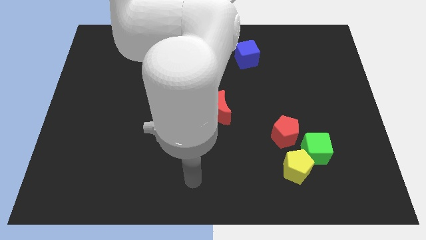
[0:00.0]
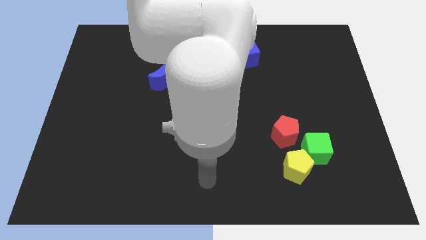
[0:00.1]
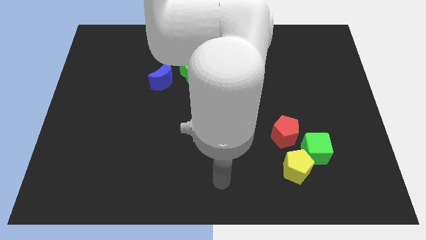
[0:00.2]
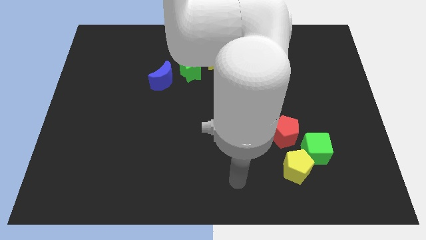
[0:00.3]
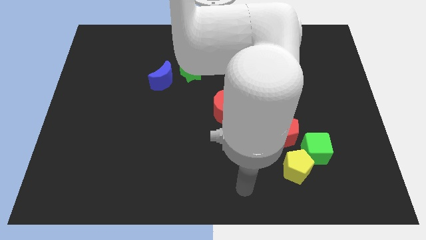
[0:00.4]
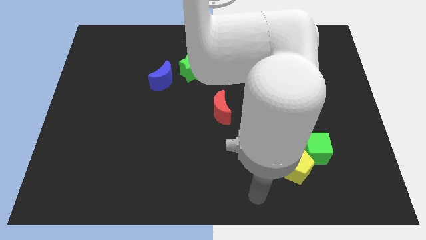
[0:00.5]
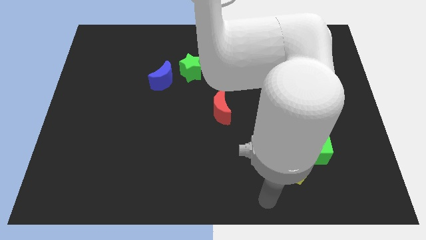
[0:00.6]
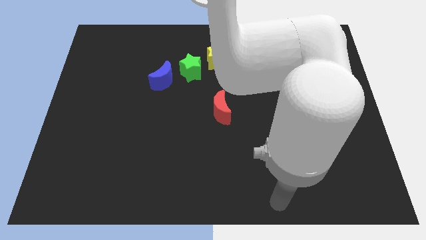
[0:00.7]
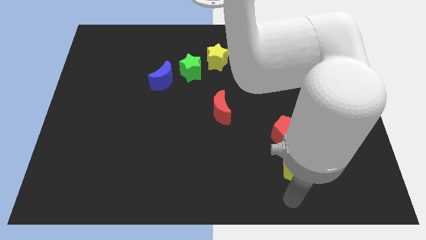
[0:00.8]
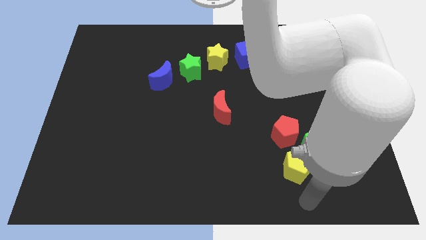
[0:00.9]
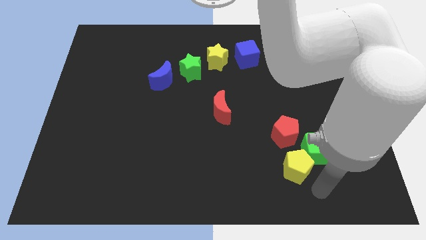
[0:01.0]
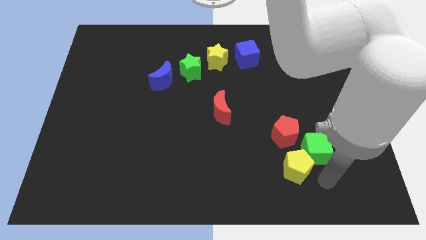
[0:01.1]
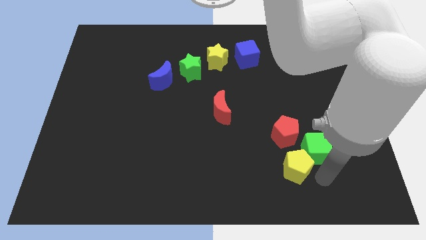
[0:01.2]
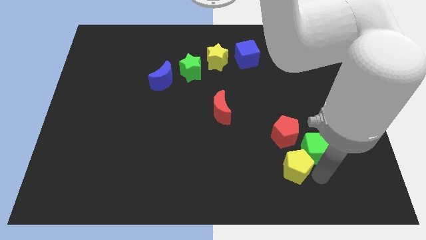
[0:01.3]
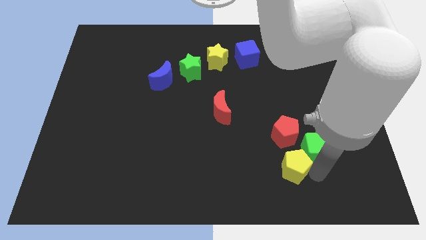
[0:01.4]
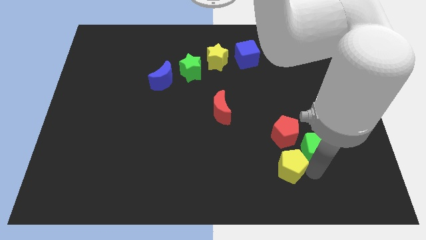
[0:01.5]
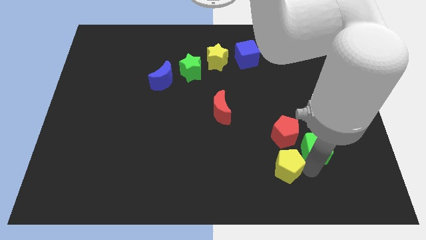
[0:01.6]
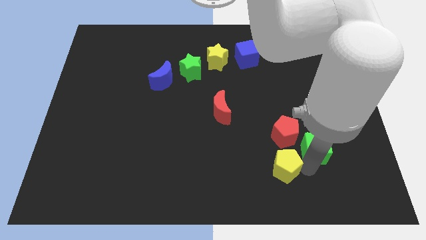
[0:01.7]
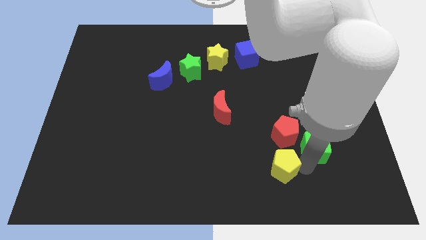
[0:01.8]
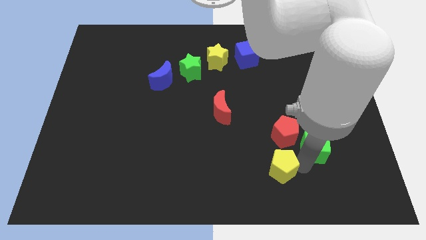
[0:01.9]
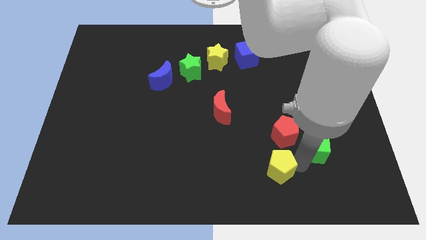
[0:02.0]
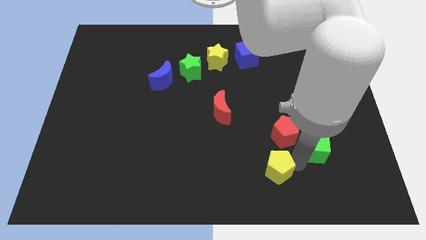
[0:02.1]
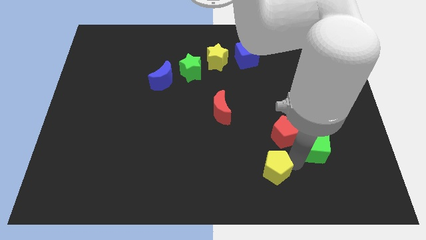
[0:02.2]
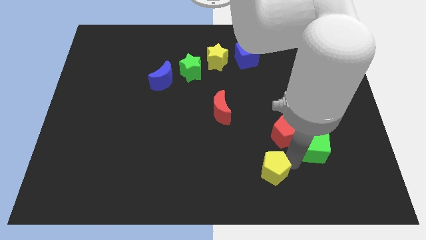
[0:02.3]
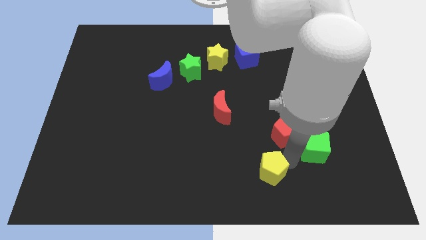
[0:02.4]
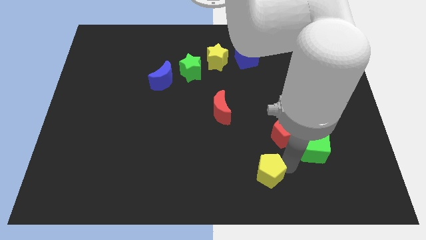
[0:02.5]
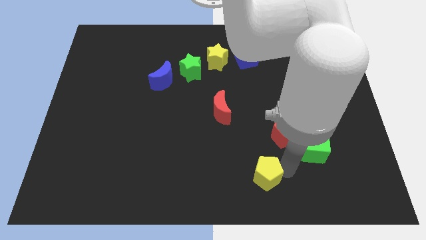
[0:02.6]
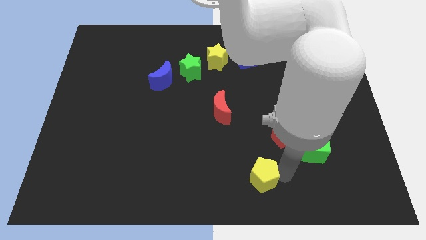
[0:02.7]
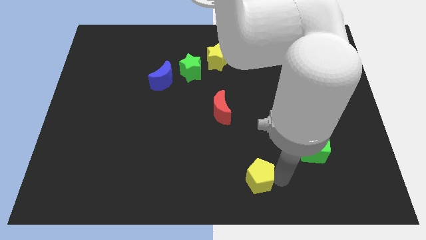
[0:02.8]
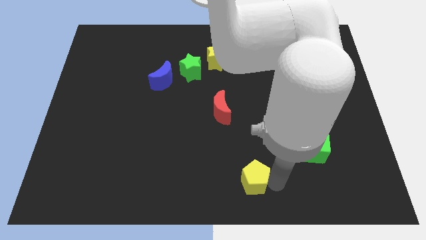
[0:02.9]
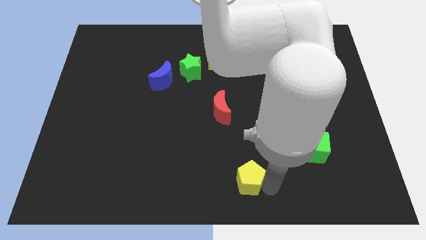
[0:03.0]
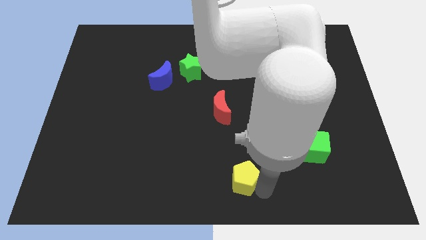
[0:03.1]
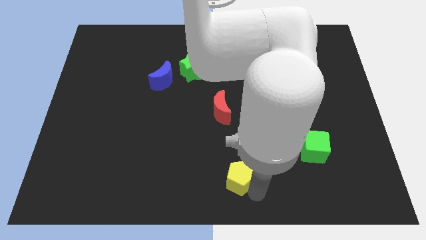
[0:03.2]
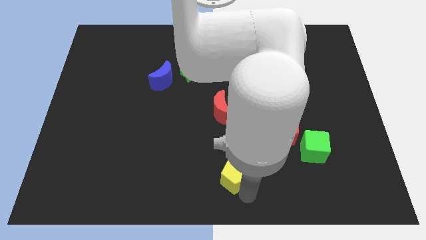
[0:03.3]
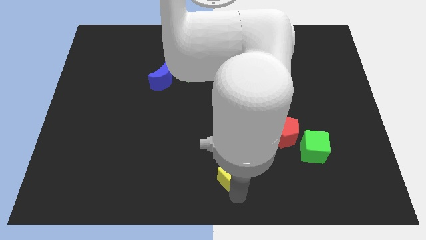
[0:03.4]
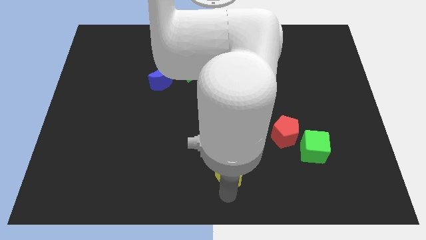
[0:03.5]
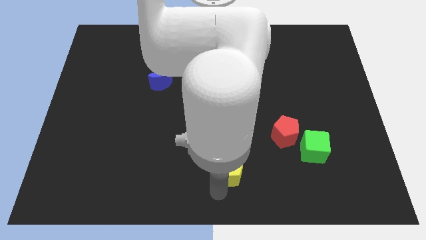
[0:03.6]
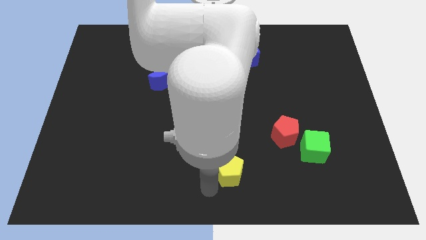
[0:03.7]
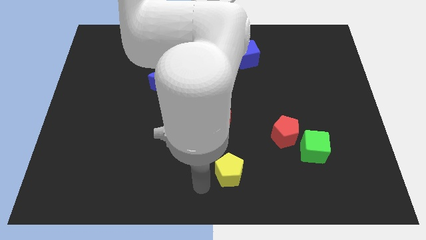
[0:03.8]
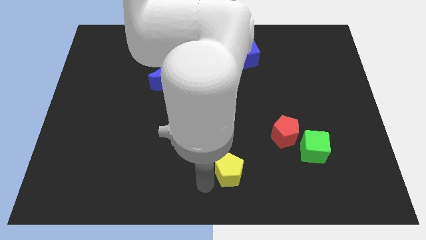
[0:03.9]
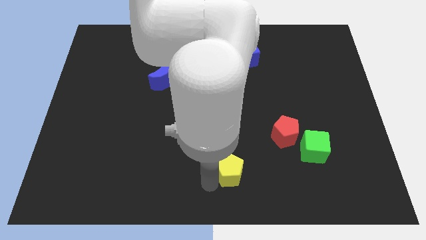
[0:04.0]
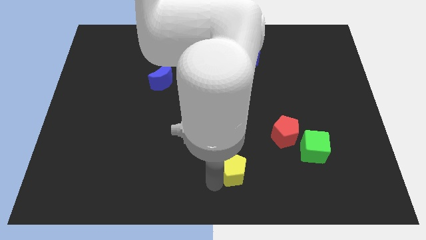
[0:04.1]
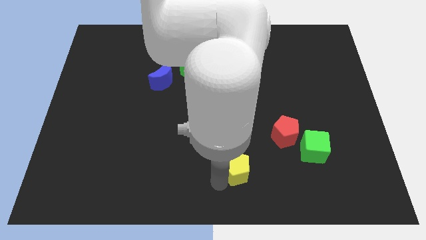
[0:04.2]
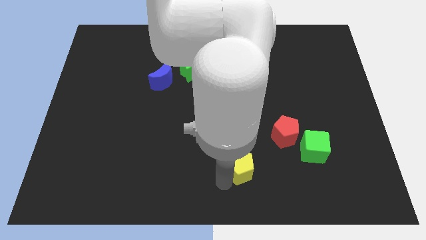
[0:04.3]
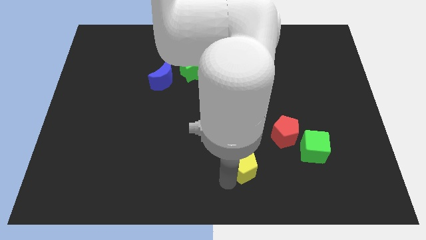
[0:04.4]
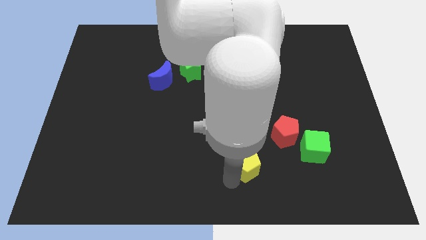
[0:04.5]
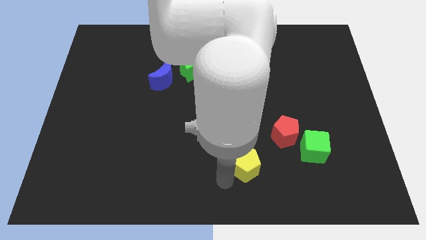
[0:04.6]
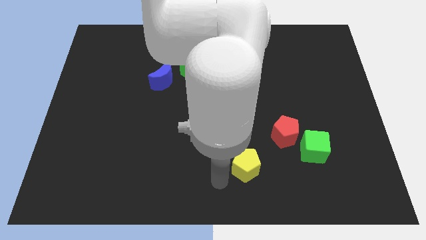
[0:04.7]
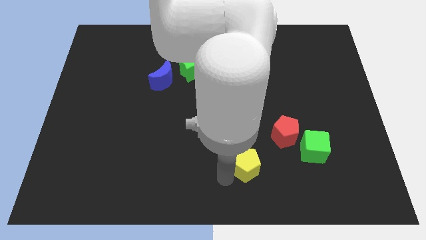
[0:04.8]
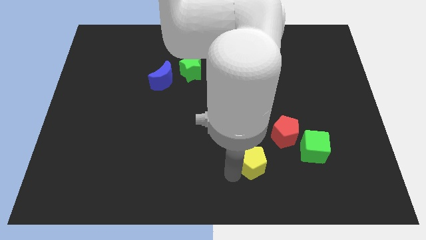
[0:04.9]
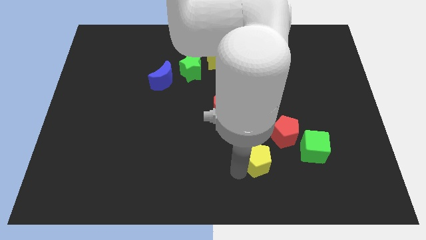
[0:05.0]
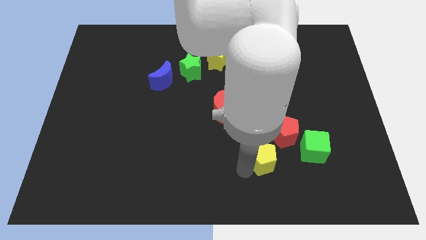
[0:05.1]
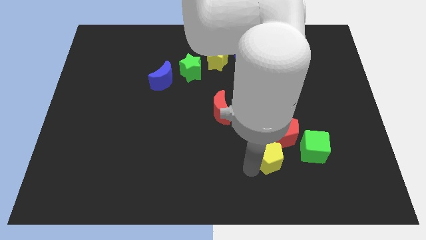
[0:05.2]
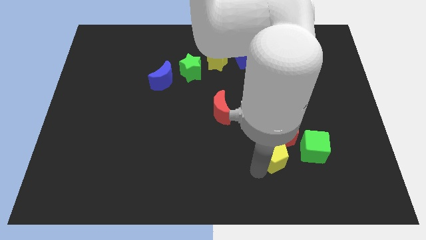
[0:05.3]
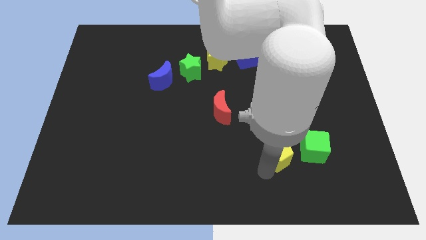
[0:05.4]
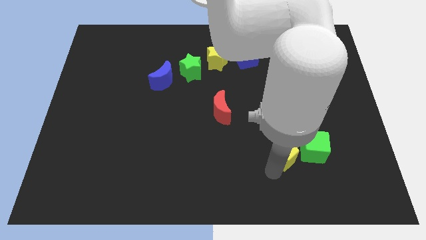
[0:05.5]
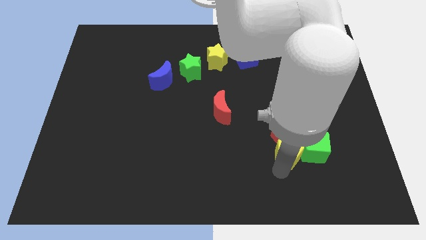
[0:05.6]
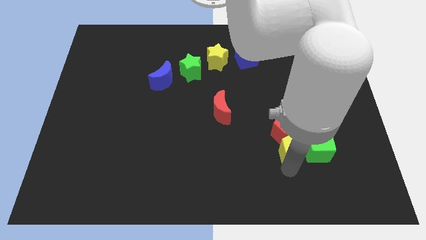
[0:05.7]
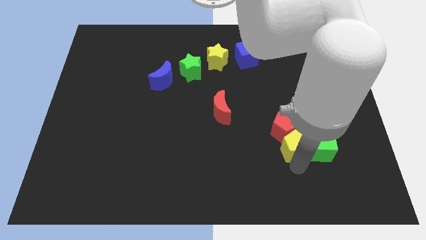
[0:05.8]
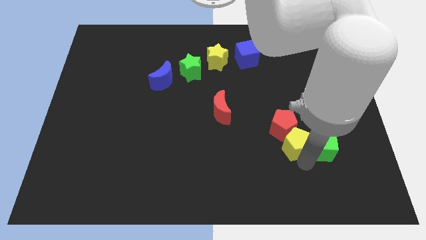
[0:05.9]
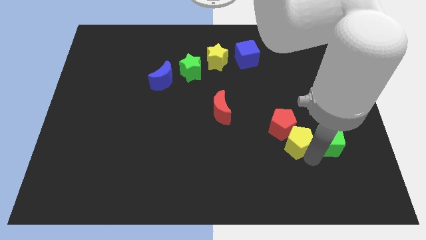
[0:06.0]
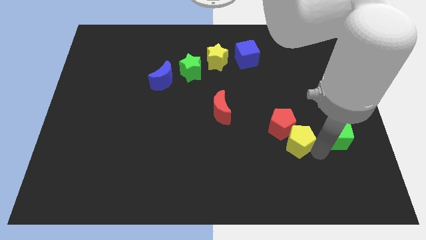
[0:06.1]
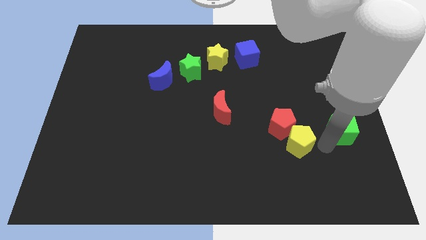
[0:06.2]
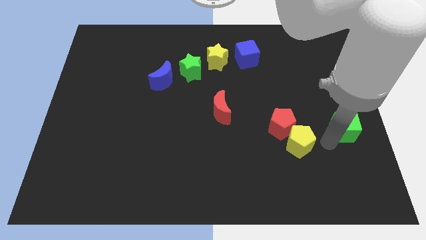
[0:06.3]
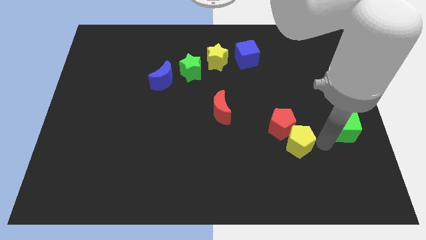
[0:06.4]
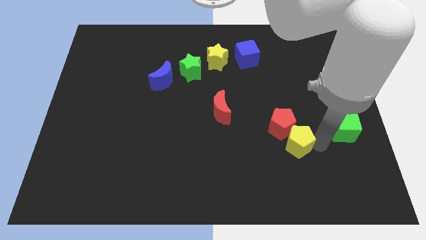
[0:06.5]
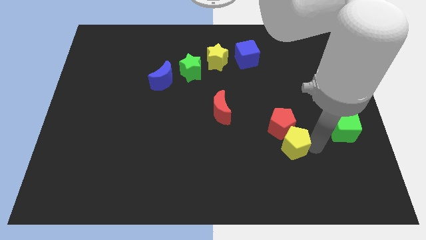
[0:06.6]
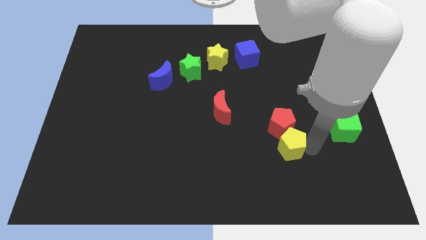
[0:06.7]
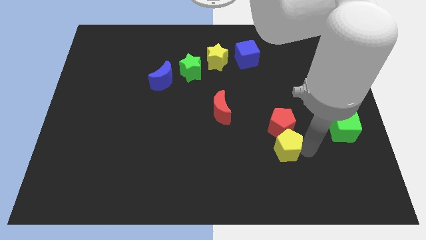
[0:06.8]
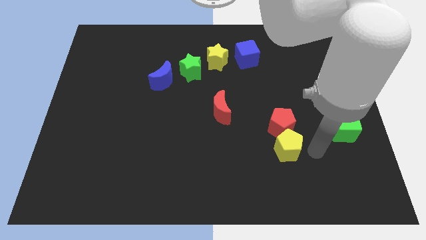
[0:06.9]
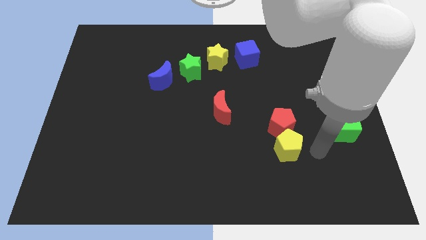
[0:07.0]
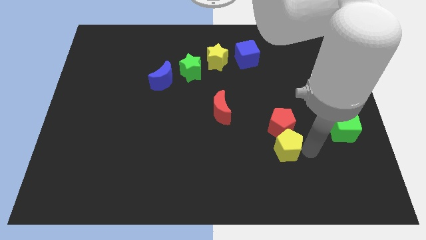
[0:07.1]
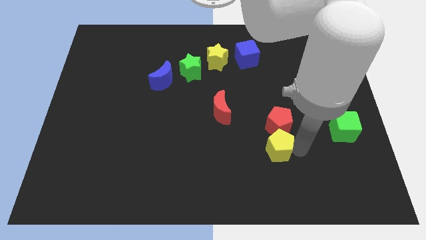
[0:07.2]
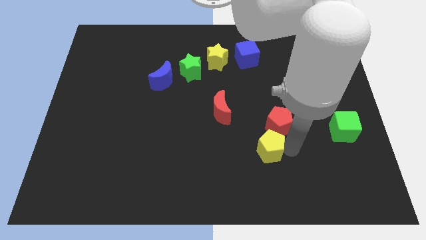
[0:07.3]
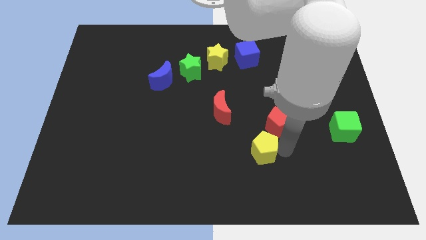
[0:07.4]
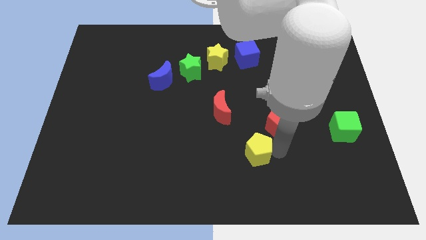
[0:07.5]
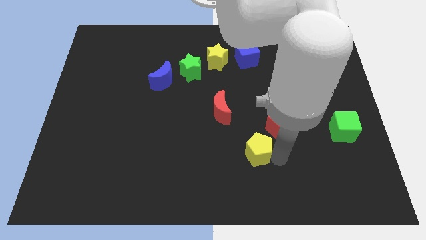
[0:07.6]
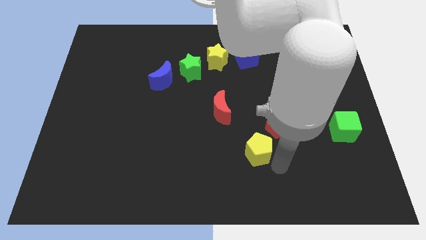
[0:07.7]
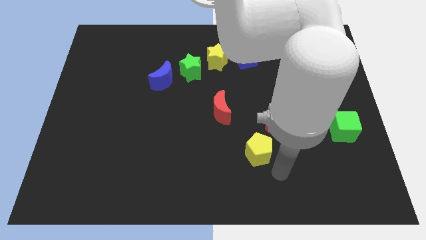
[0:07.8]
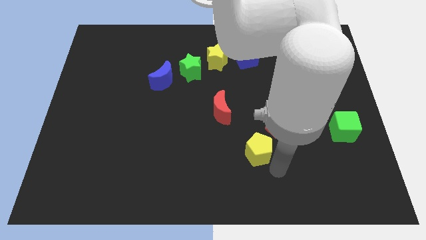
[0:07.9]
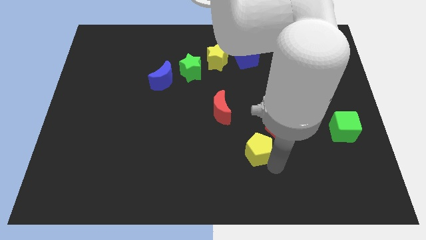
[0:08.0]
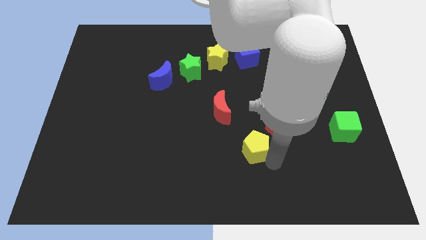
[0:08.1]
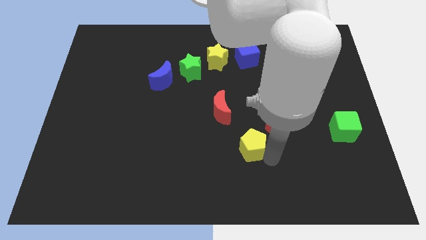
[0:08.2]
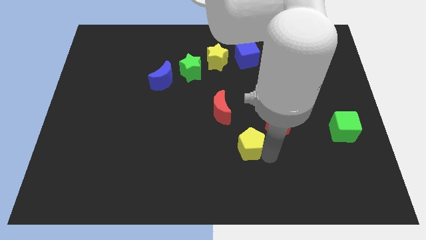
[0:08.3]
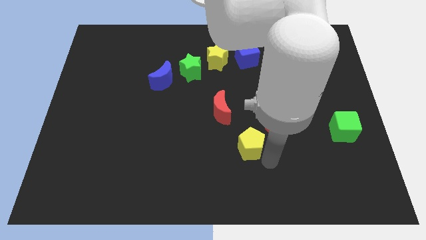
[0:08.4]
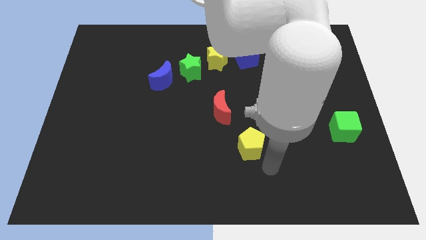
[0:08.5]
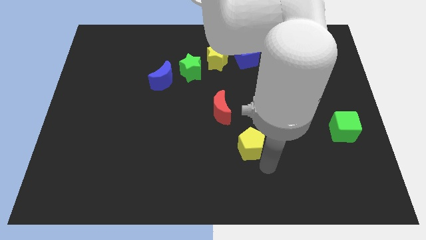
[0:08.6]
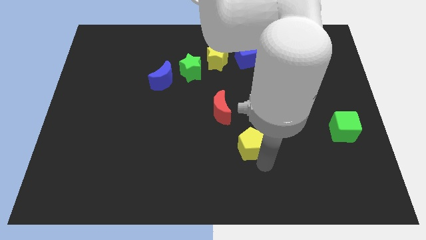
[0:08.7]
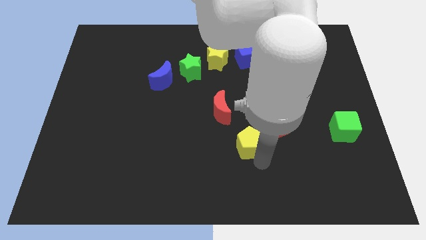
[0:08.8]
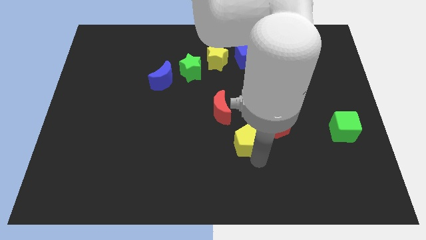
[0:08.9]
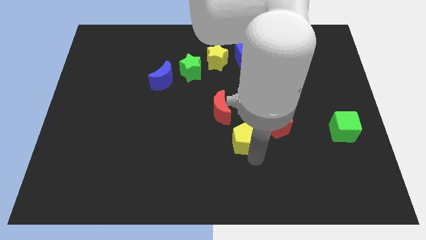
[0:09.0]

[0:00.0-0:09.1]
push the yellow pentagon left of the red pentagon
